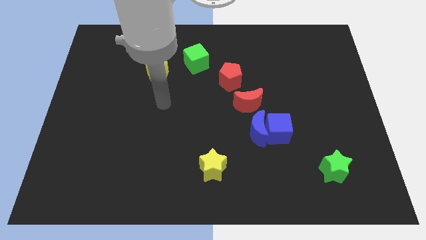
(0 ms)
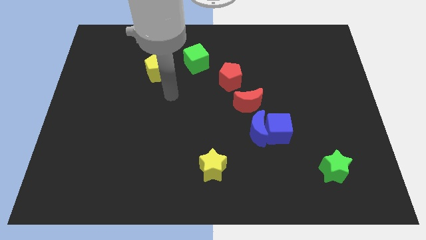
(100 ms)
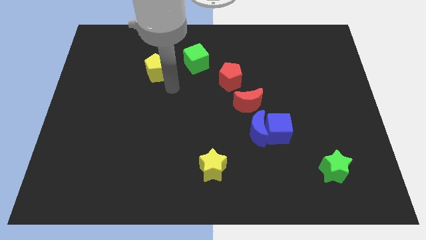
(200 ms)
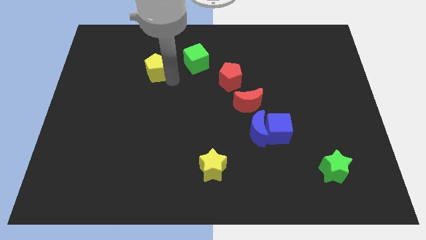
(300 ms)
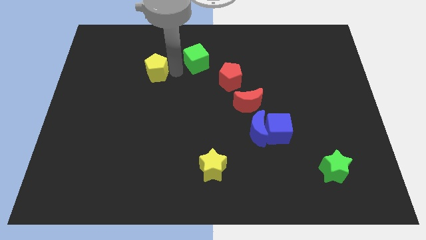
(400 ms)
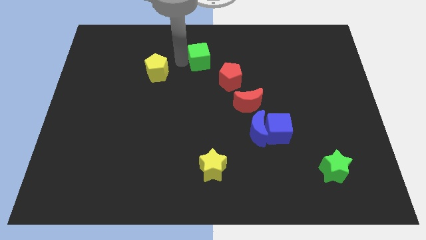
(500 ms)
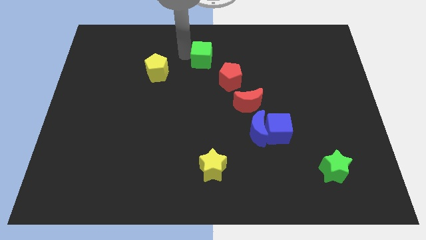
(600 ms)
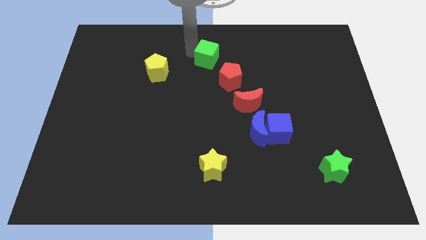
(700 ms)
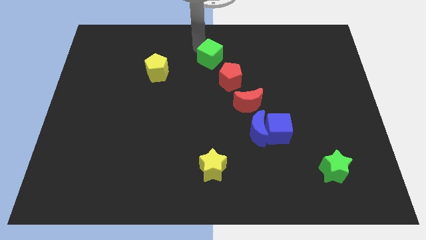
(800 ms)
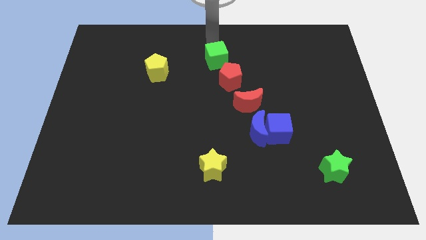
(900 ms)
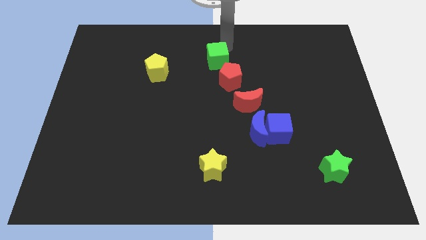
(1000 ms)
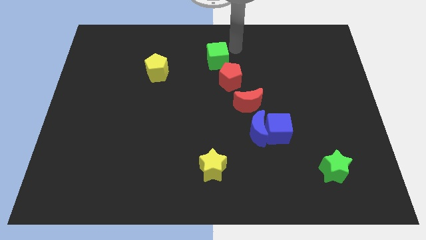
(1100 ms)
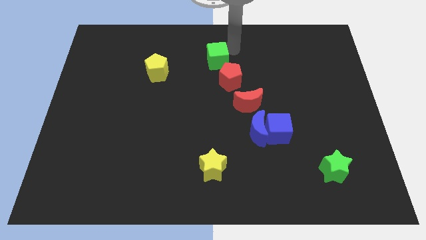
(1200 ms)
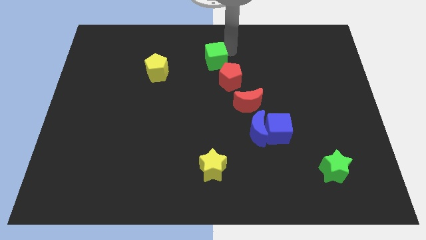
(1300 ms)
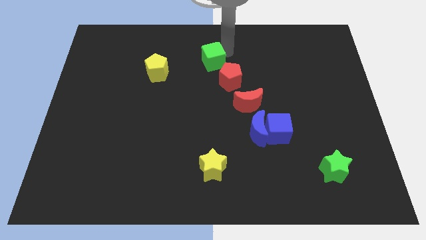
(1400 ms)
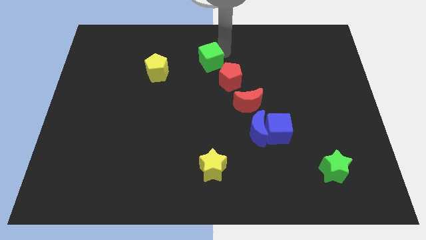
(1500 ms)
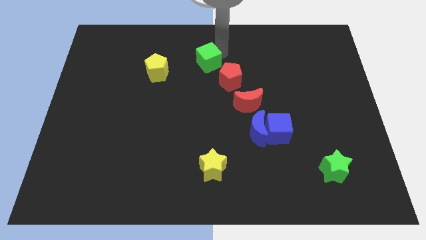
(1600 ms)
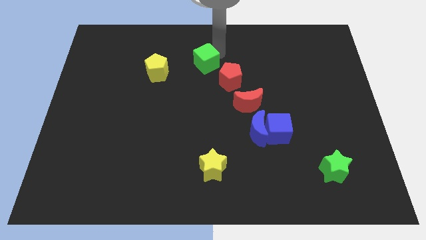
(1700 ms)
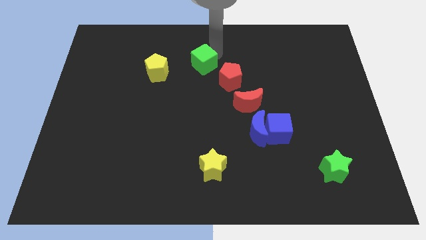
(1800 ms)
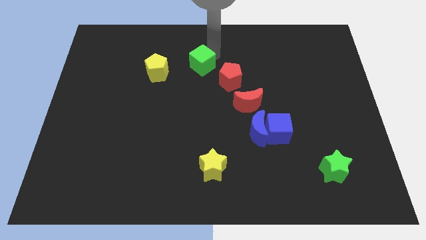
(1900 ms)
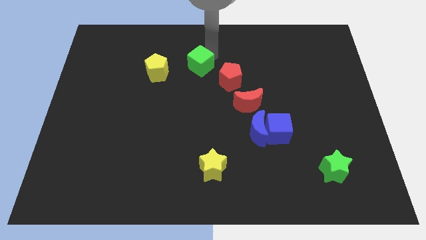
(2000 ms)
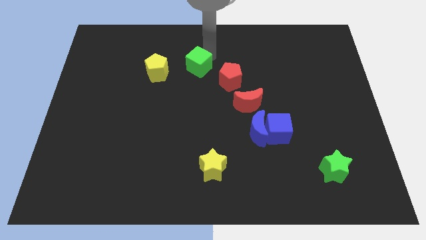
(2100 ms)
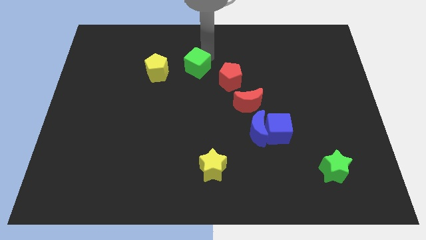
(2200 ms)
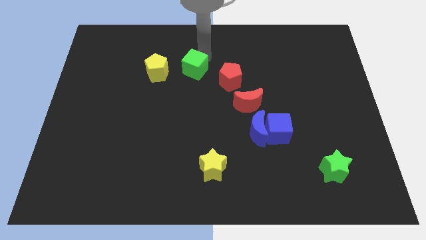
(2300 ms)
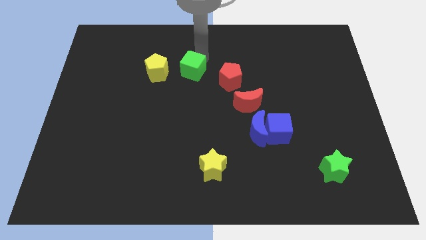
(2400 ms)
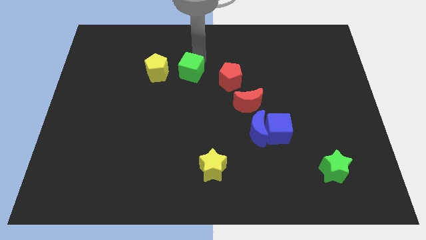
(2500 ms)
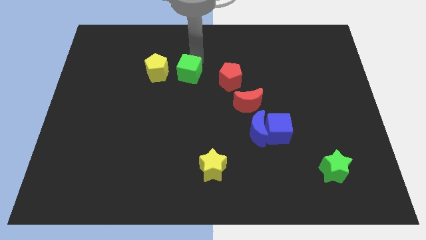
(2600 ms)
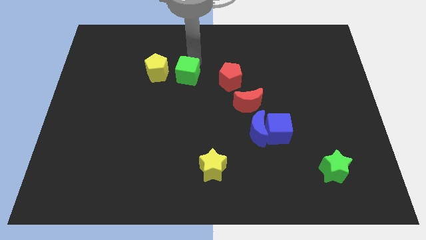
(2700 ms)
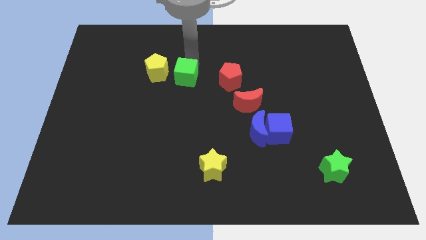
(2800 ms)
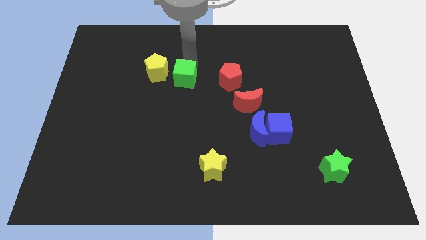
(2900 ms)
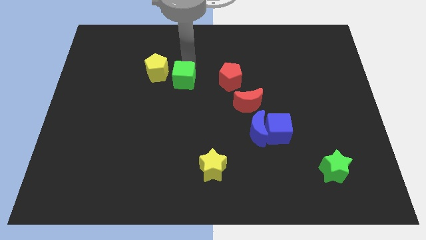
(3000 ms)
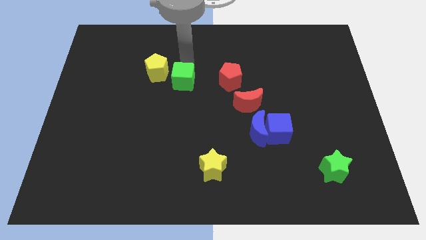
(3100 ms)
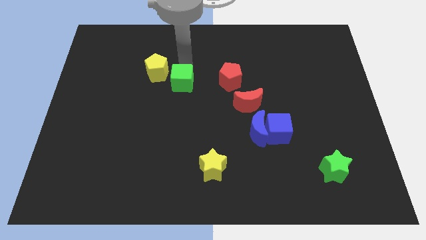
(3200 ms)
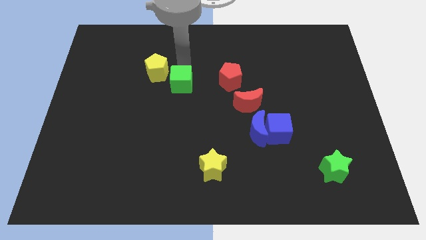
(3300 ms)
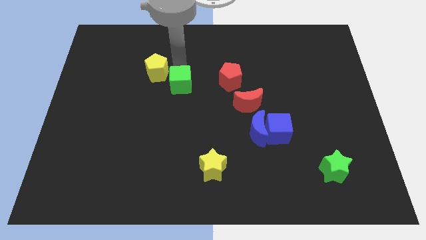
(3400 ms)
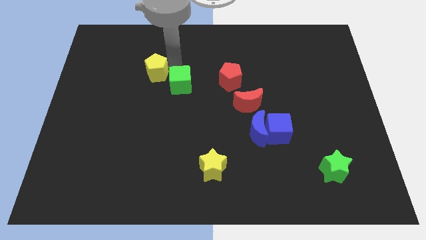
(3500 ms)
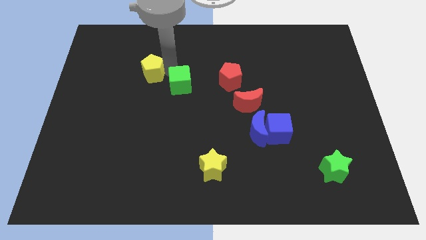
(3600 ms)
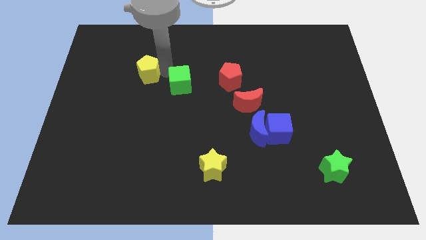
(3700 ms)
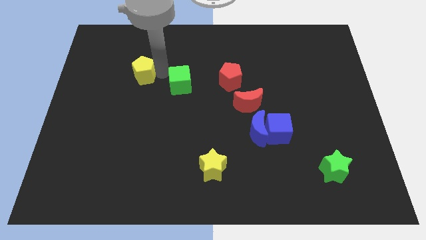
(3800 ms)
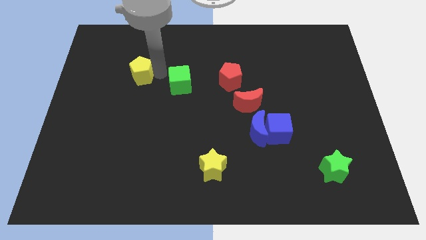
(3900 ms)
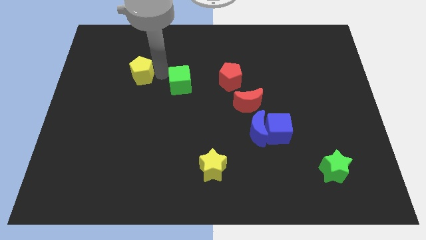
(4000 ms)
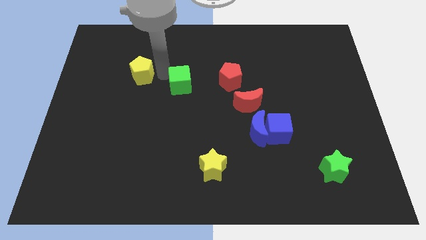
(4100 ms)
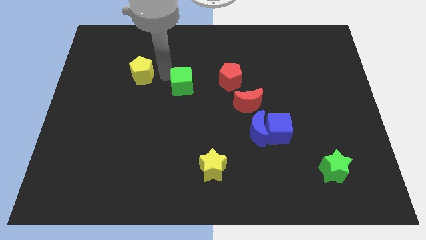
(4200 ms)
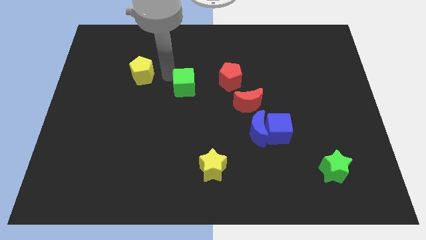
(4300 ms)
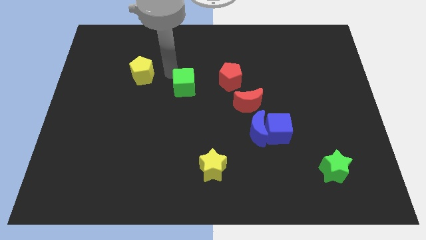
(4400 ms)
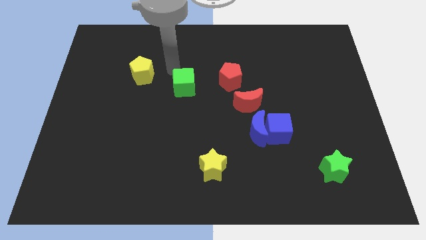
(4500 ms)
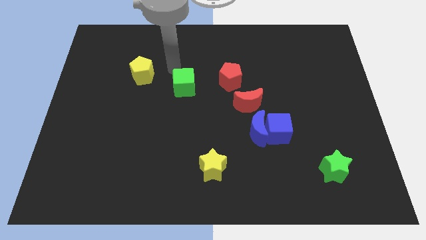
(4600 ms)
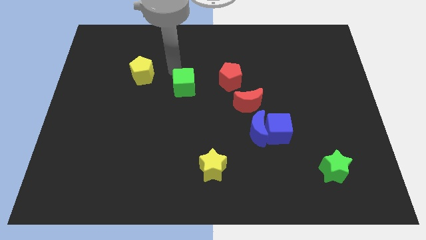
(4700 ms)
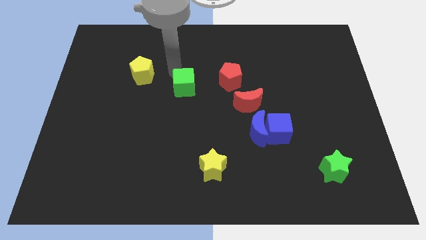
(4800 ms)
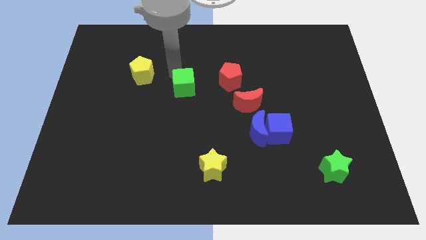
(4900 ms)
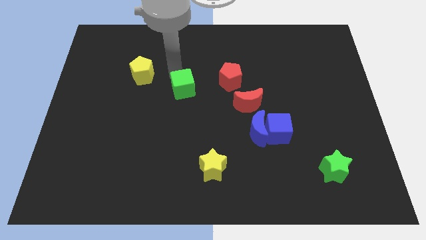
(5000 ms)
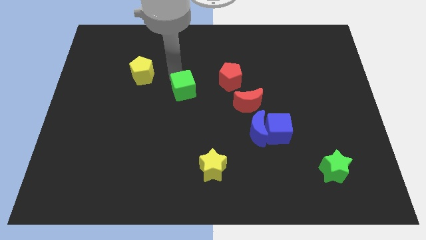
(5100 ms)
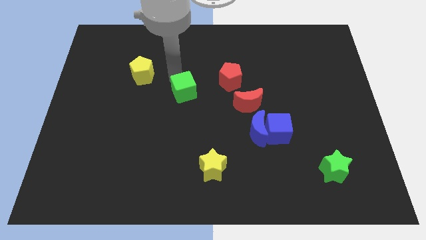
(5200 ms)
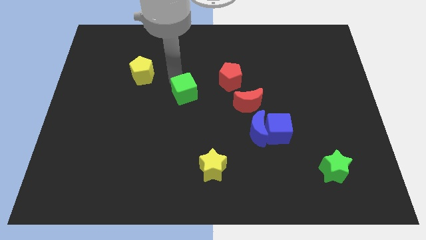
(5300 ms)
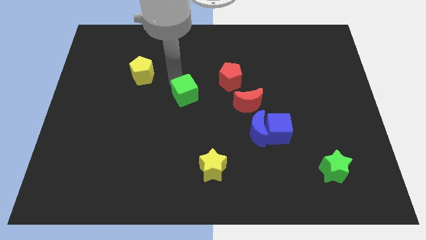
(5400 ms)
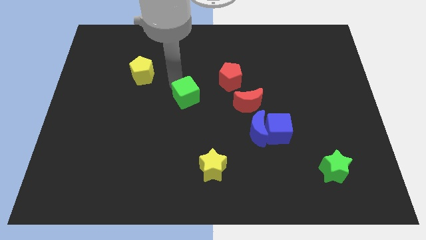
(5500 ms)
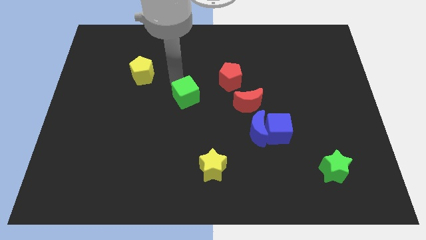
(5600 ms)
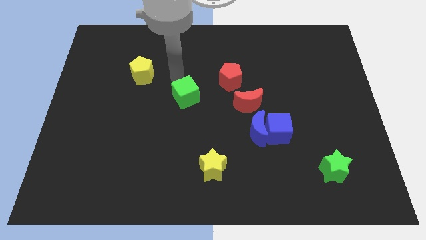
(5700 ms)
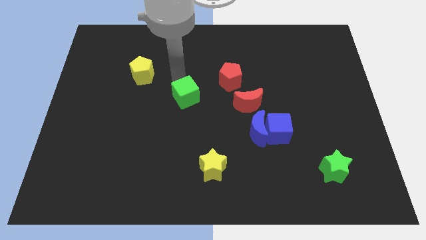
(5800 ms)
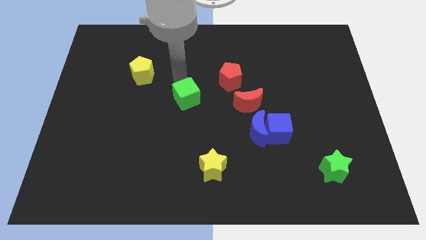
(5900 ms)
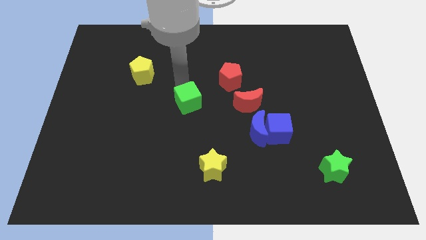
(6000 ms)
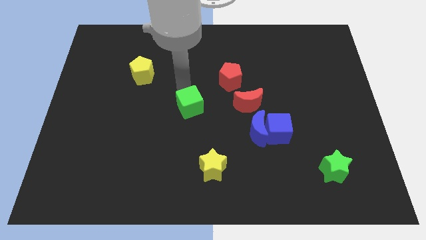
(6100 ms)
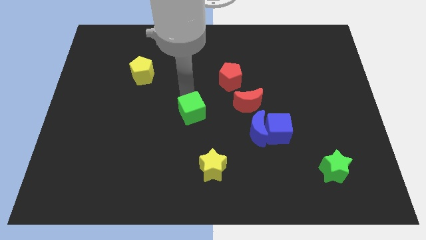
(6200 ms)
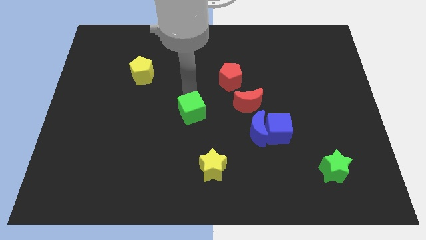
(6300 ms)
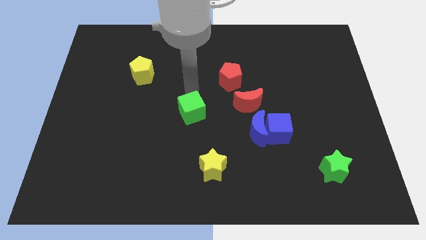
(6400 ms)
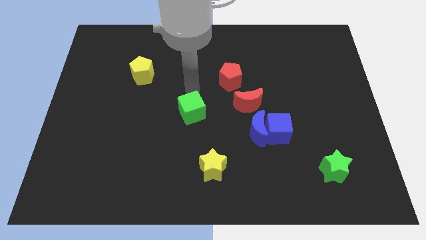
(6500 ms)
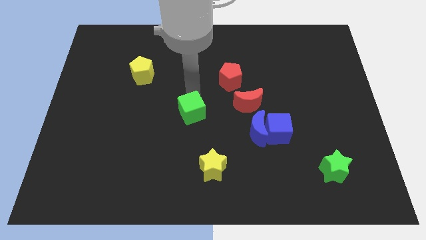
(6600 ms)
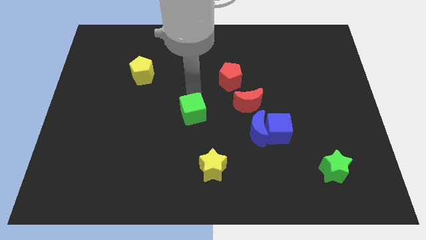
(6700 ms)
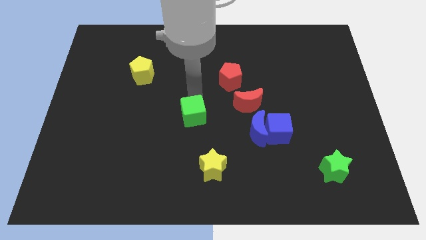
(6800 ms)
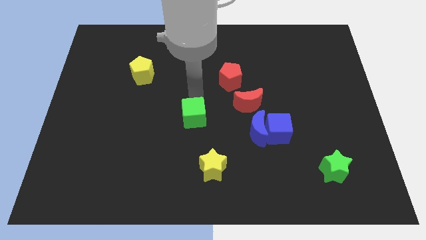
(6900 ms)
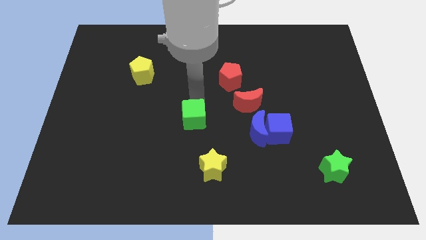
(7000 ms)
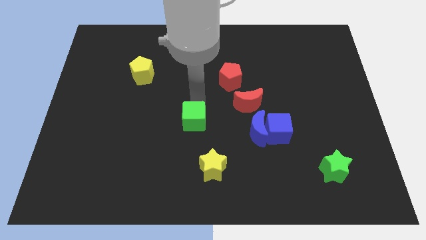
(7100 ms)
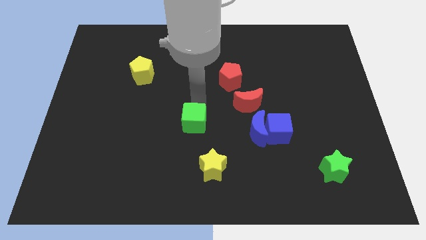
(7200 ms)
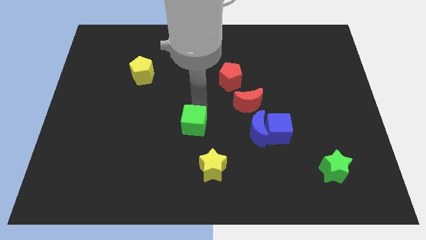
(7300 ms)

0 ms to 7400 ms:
move the green cube downwards

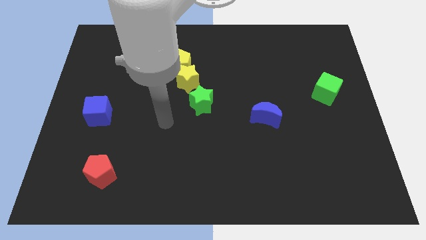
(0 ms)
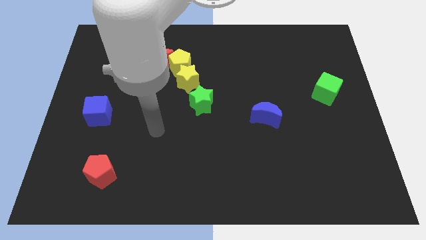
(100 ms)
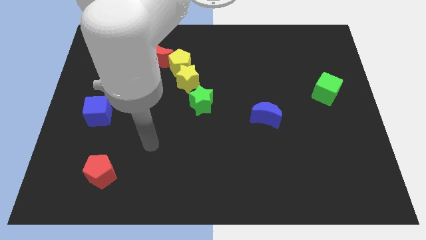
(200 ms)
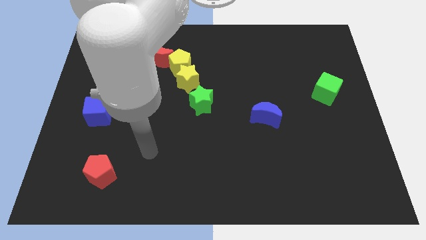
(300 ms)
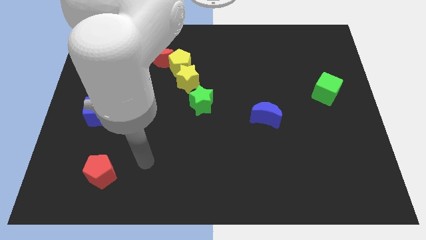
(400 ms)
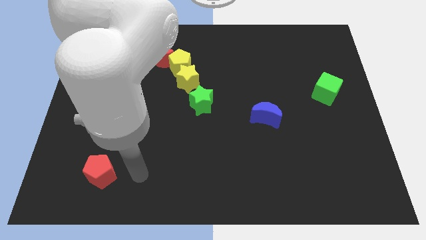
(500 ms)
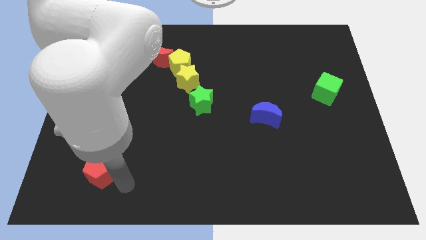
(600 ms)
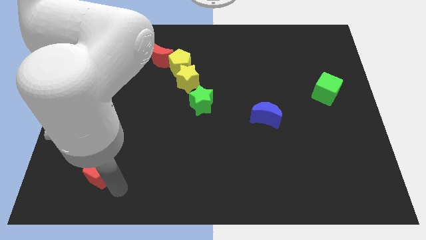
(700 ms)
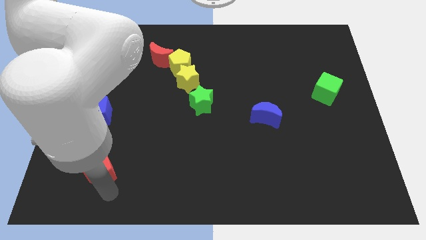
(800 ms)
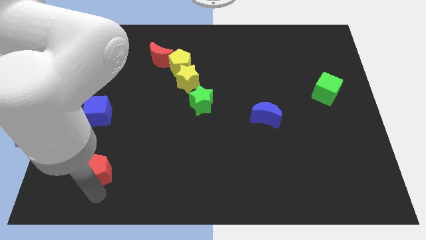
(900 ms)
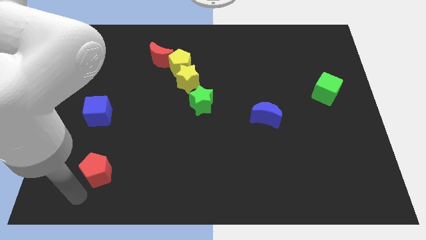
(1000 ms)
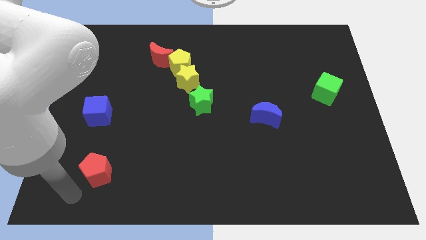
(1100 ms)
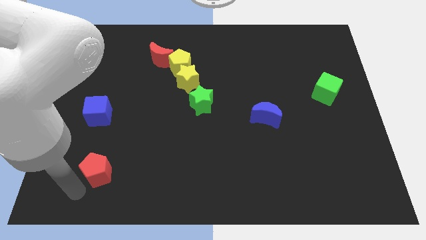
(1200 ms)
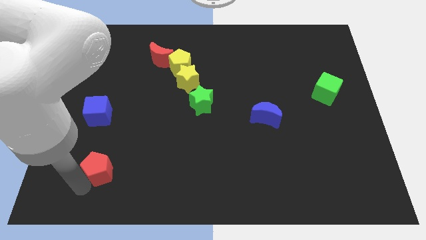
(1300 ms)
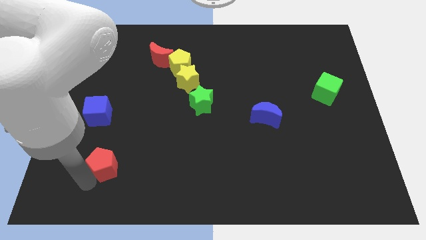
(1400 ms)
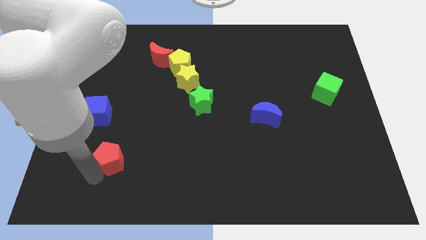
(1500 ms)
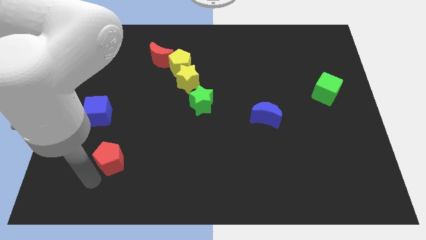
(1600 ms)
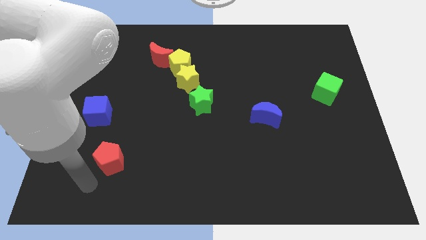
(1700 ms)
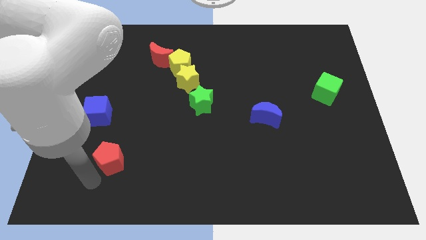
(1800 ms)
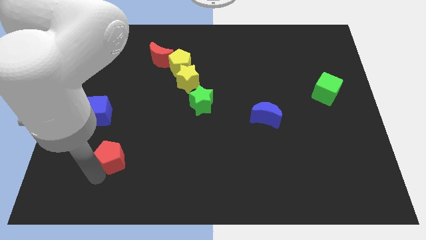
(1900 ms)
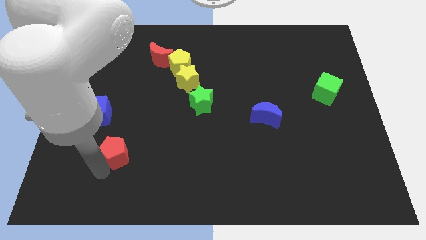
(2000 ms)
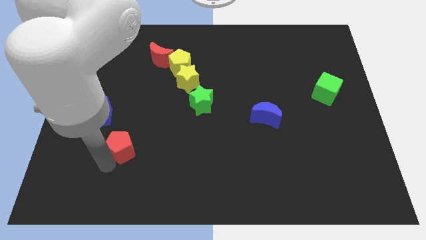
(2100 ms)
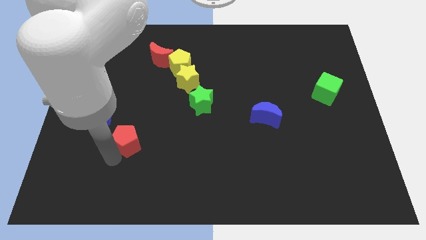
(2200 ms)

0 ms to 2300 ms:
push the red pentagon a little upwards and to the right diagonally
